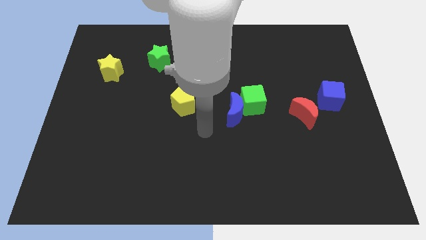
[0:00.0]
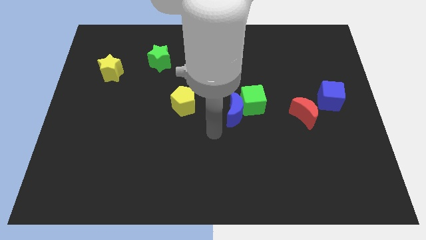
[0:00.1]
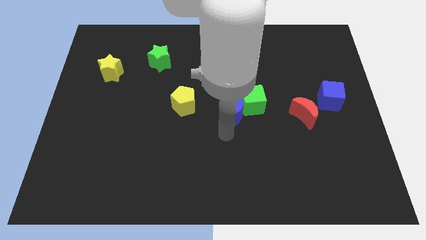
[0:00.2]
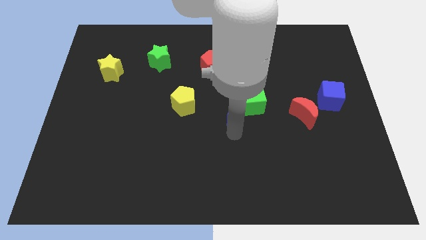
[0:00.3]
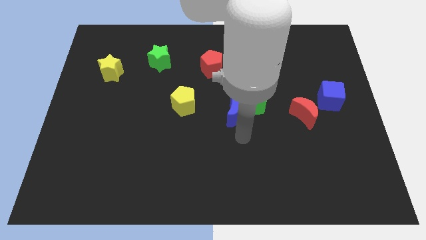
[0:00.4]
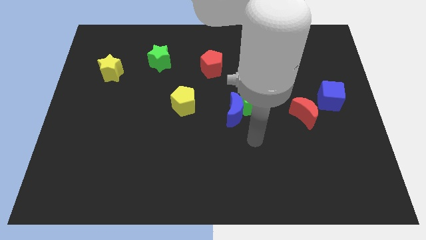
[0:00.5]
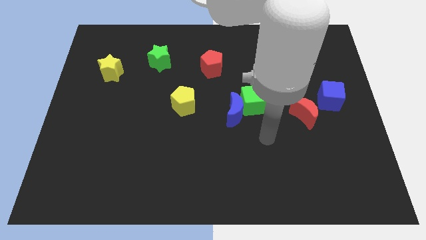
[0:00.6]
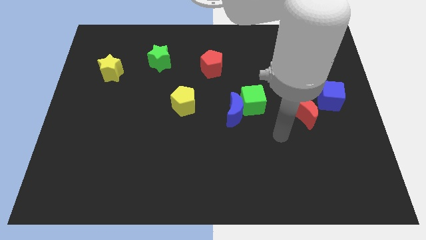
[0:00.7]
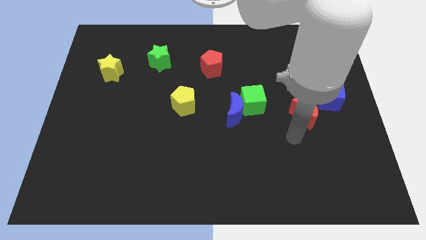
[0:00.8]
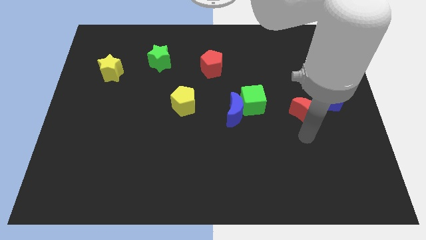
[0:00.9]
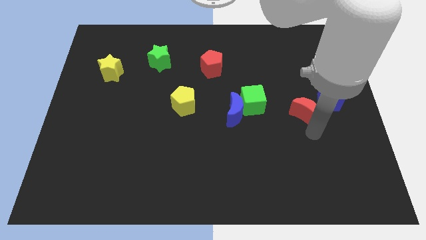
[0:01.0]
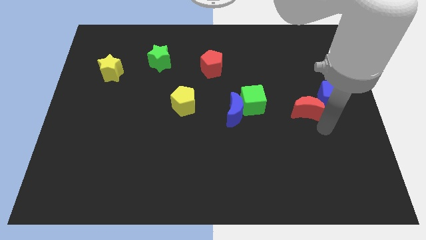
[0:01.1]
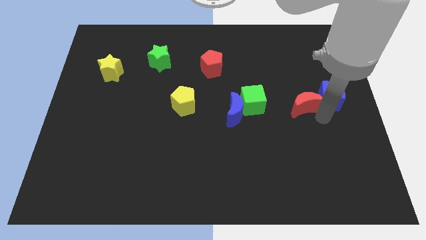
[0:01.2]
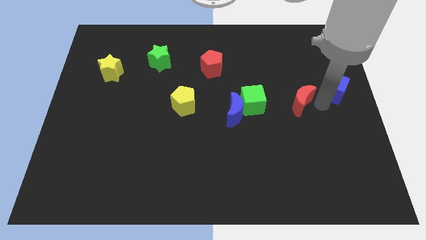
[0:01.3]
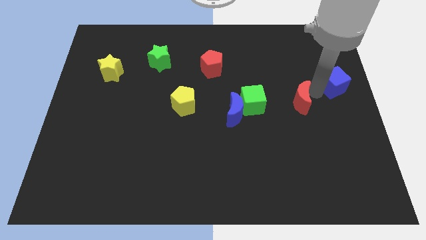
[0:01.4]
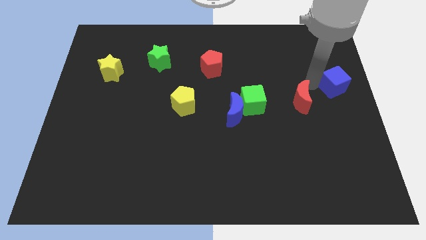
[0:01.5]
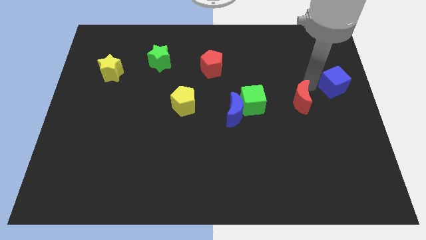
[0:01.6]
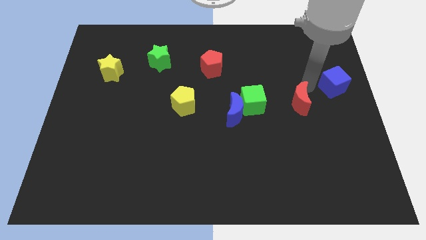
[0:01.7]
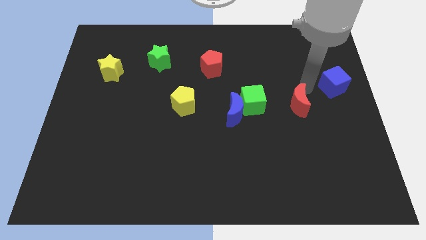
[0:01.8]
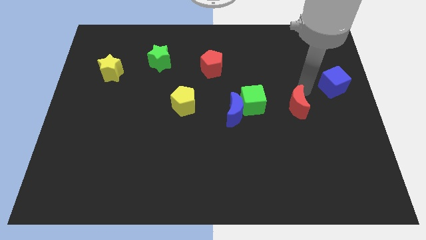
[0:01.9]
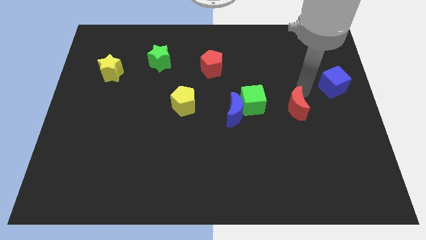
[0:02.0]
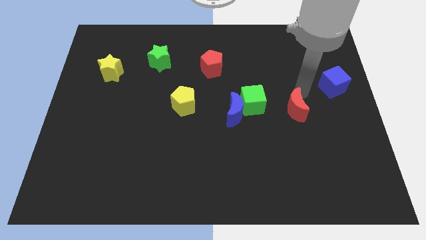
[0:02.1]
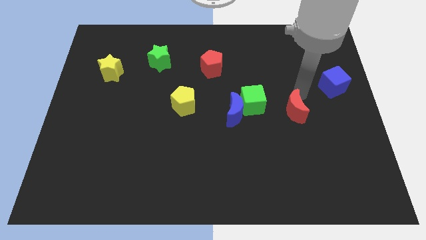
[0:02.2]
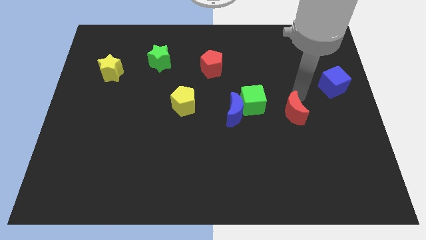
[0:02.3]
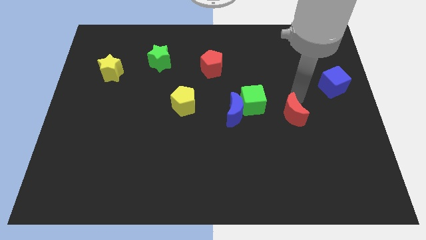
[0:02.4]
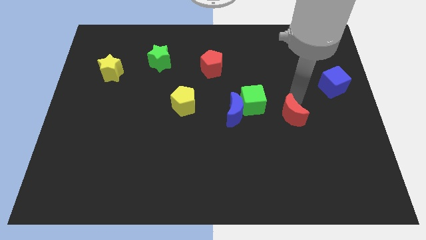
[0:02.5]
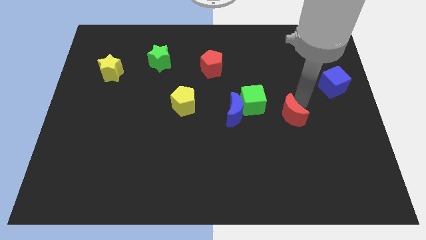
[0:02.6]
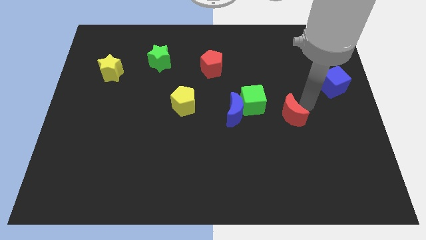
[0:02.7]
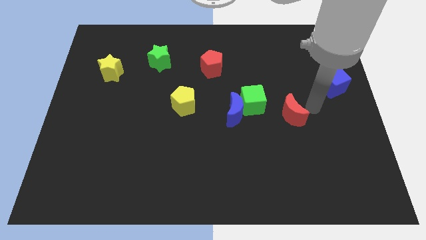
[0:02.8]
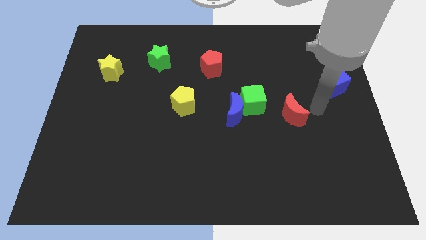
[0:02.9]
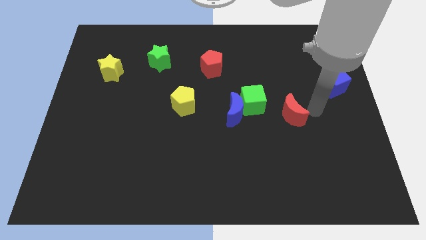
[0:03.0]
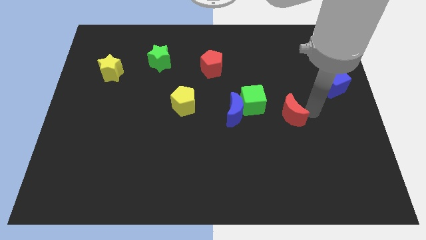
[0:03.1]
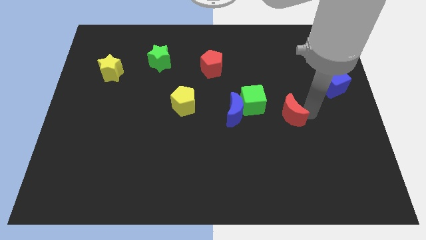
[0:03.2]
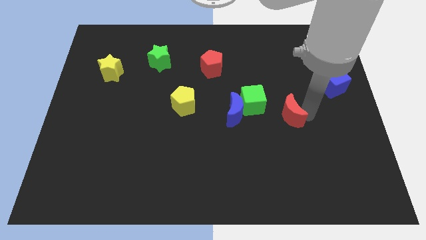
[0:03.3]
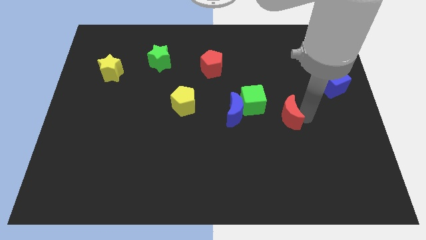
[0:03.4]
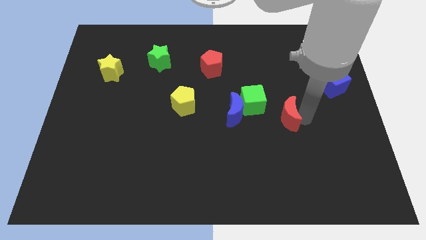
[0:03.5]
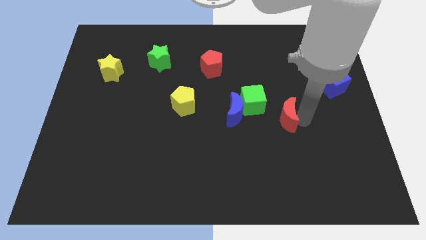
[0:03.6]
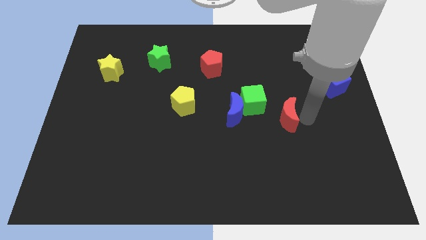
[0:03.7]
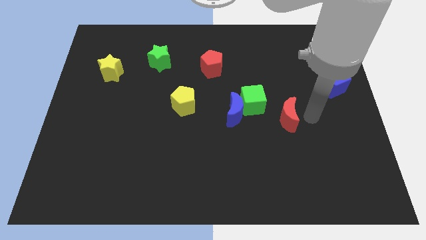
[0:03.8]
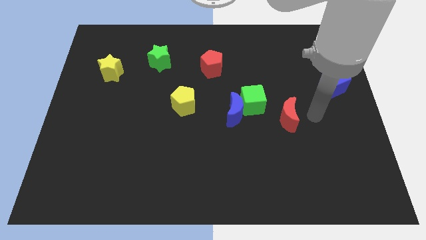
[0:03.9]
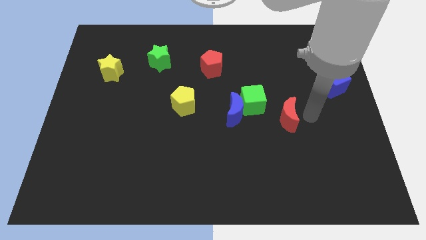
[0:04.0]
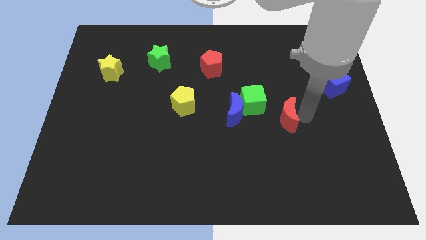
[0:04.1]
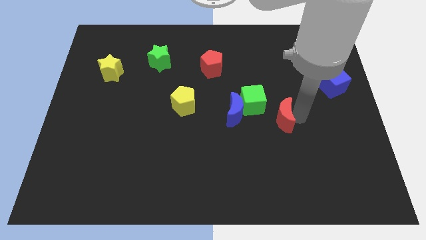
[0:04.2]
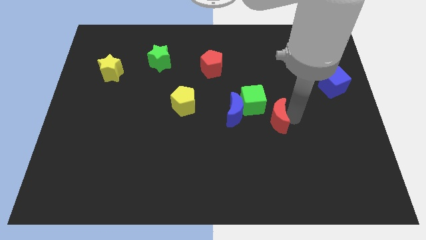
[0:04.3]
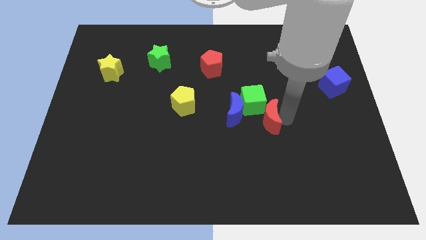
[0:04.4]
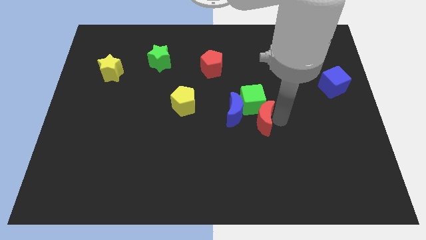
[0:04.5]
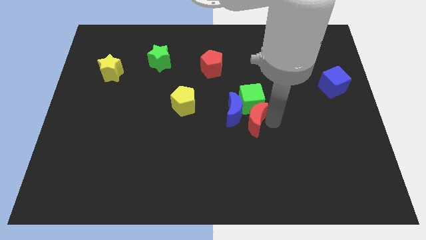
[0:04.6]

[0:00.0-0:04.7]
put the red moon to the blue moon

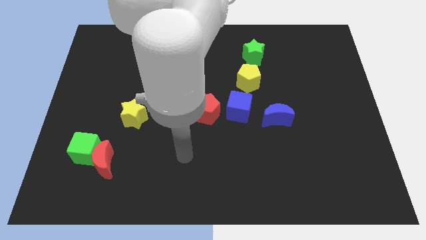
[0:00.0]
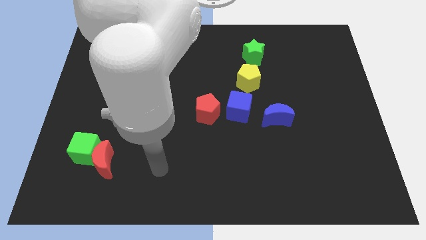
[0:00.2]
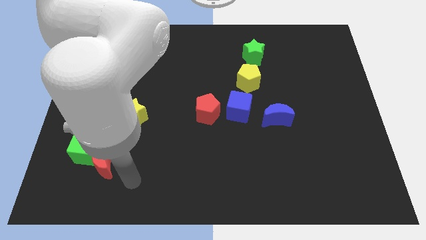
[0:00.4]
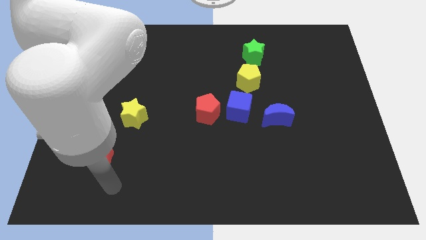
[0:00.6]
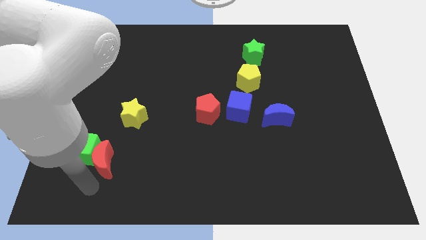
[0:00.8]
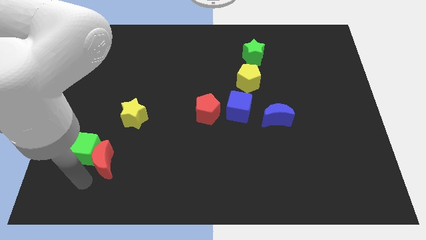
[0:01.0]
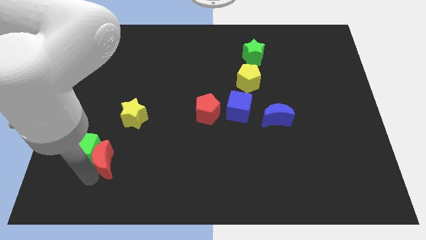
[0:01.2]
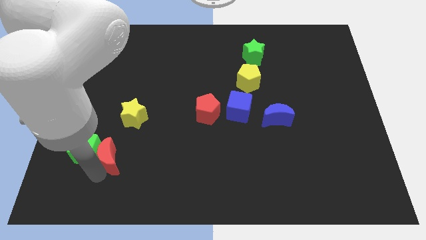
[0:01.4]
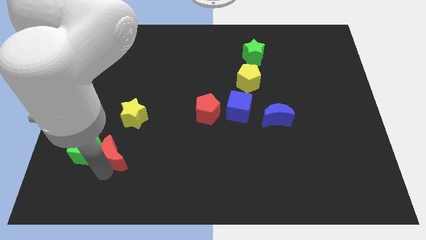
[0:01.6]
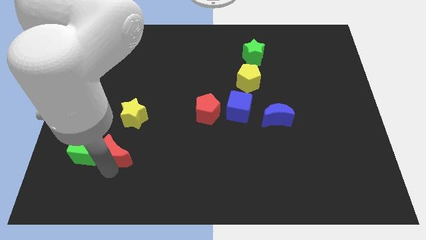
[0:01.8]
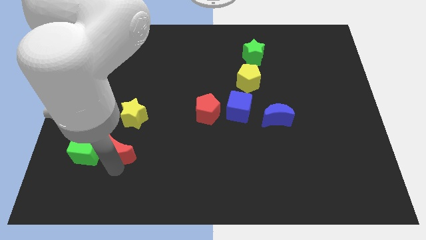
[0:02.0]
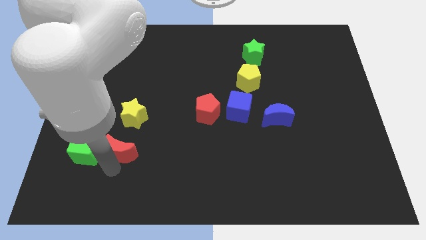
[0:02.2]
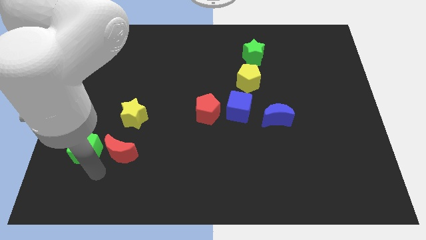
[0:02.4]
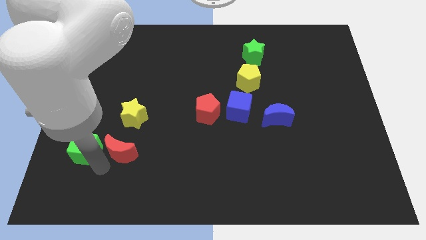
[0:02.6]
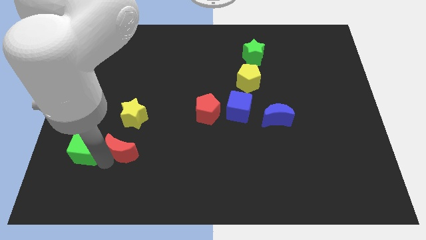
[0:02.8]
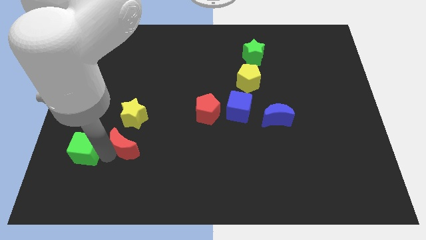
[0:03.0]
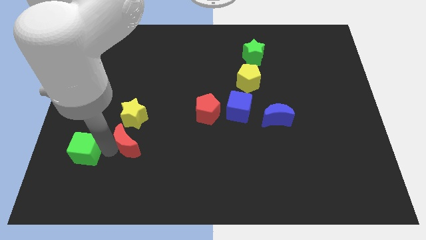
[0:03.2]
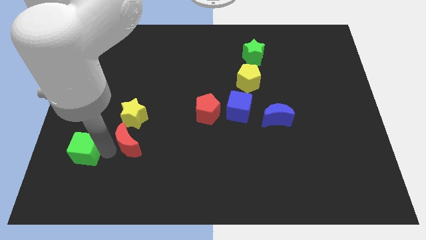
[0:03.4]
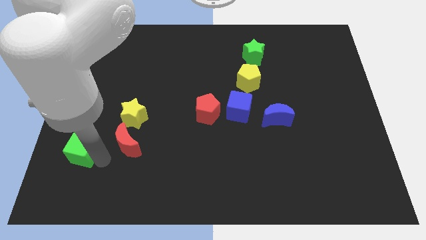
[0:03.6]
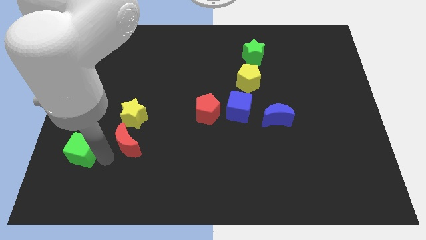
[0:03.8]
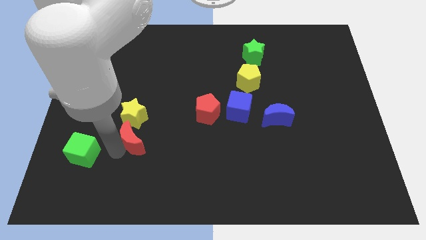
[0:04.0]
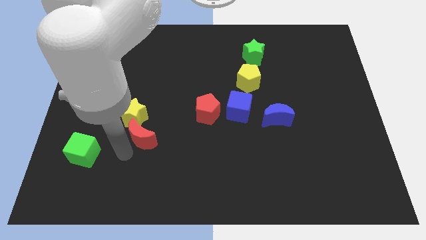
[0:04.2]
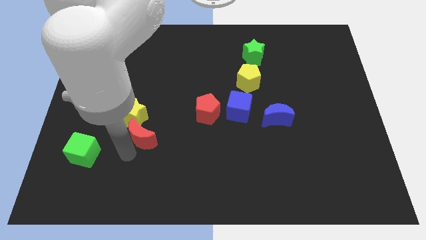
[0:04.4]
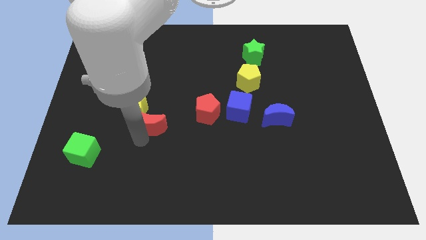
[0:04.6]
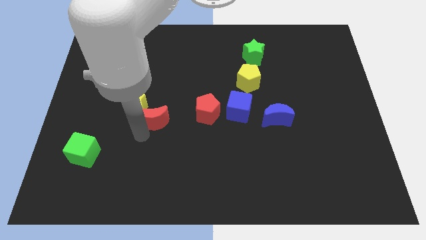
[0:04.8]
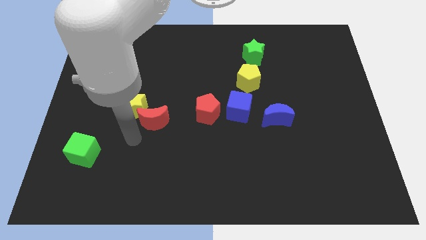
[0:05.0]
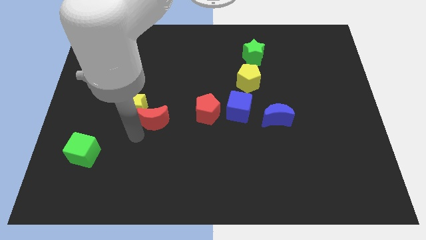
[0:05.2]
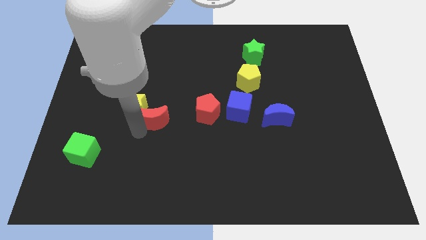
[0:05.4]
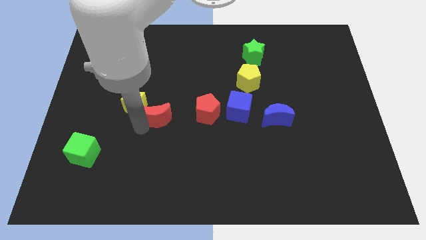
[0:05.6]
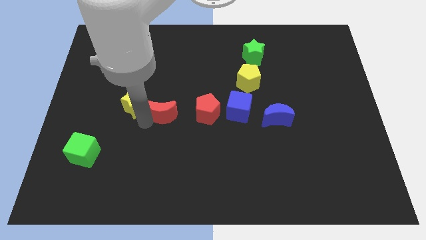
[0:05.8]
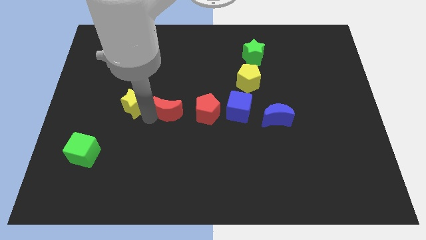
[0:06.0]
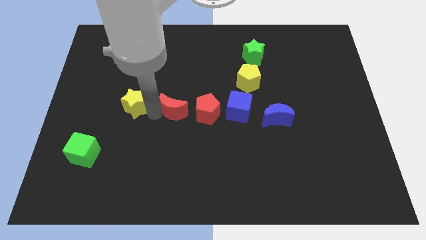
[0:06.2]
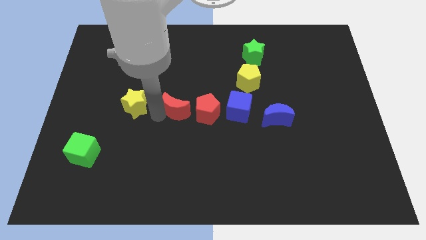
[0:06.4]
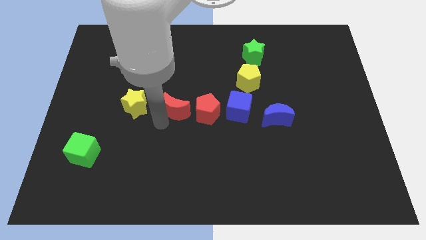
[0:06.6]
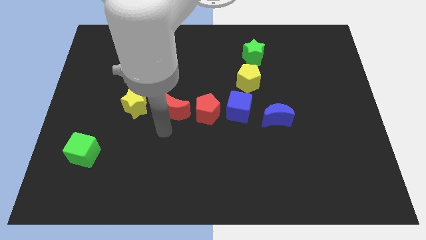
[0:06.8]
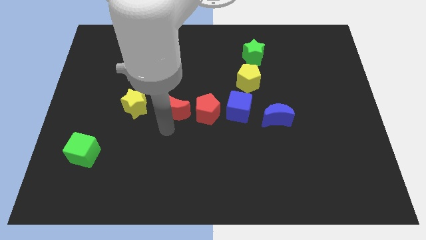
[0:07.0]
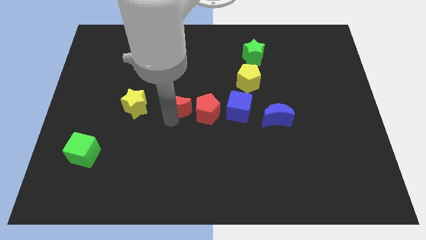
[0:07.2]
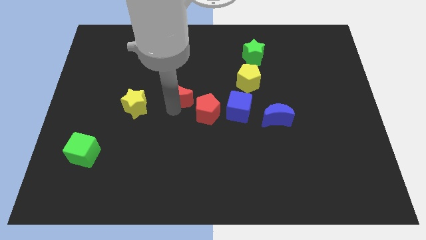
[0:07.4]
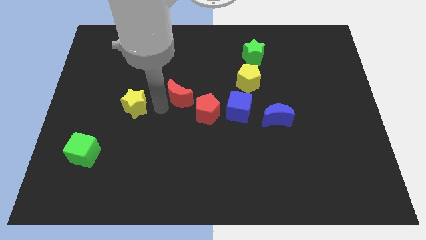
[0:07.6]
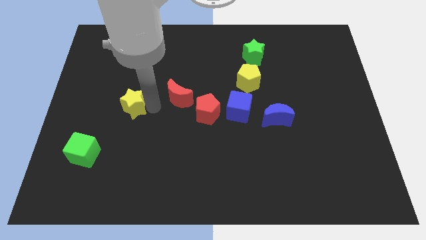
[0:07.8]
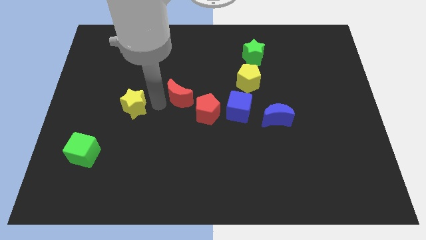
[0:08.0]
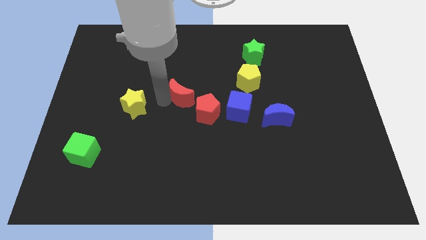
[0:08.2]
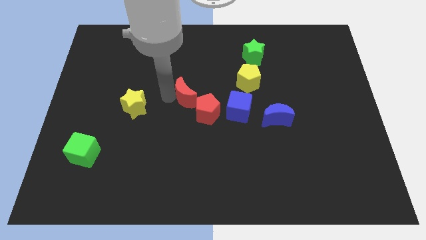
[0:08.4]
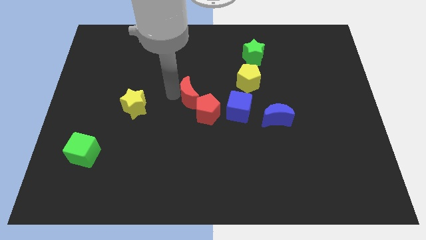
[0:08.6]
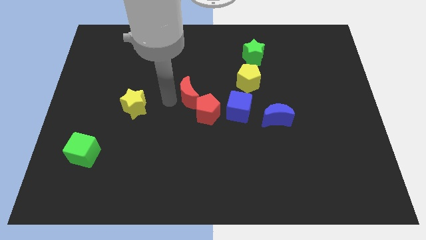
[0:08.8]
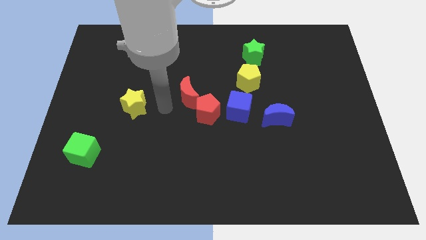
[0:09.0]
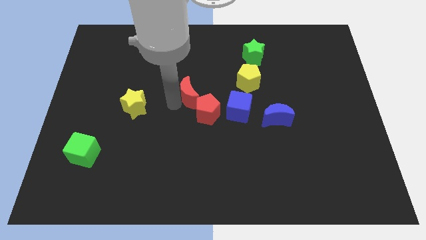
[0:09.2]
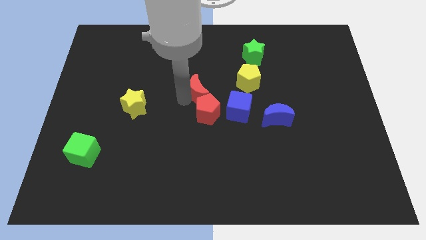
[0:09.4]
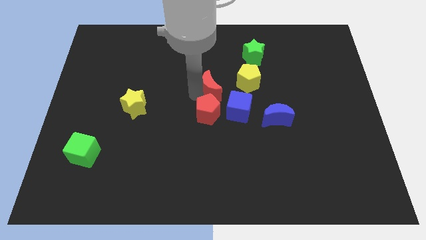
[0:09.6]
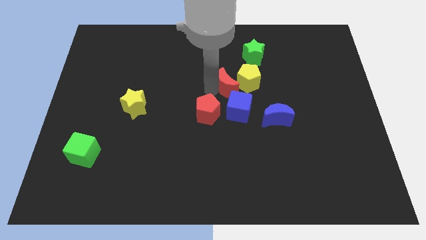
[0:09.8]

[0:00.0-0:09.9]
put the red moon close to the yellow pentagon
